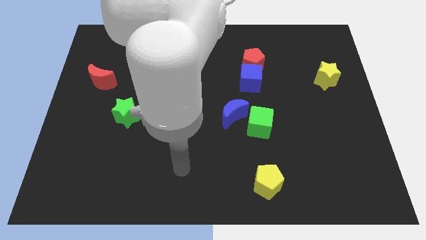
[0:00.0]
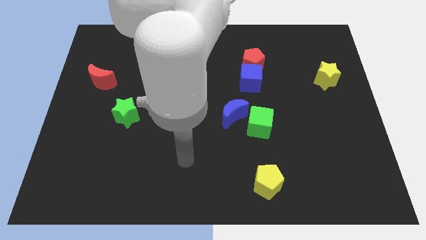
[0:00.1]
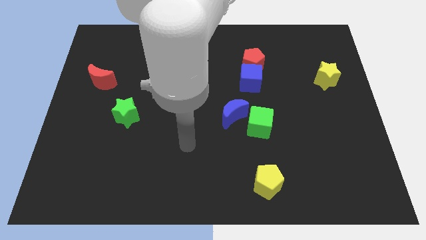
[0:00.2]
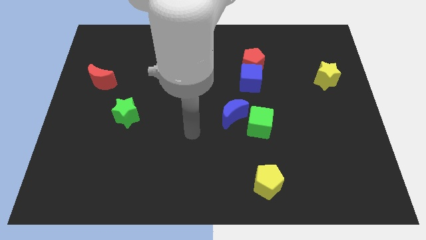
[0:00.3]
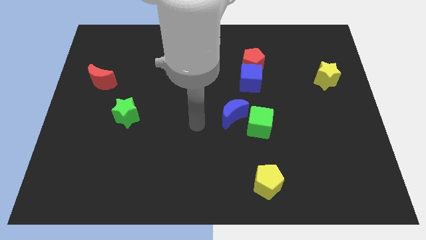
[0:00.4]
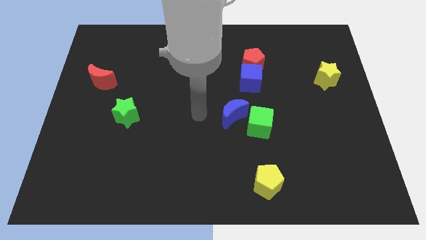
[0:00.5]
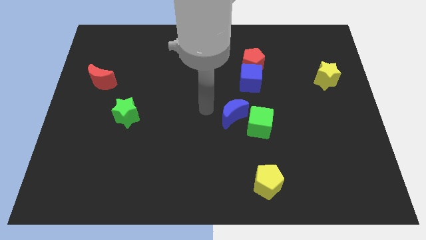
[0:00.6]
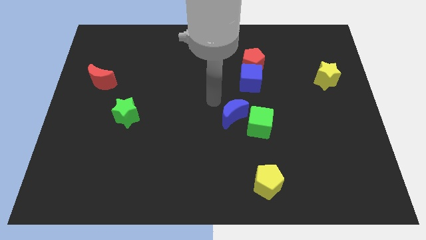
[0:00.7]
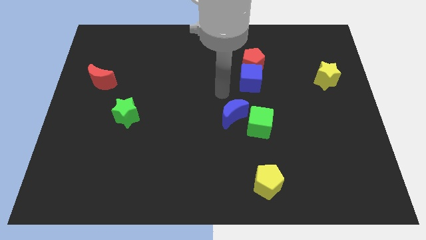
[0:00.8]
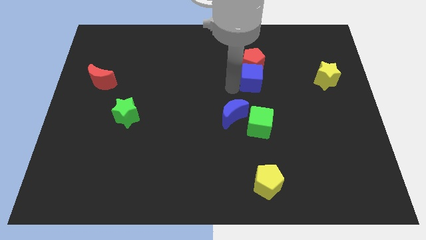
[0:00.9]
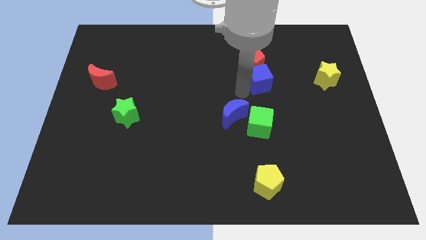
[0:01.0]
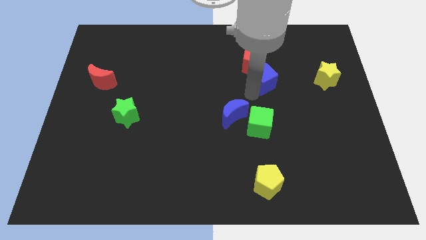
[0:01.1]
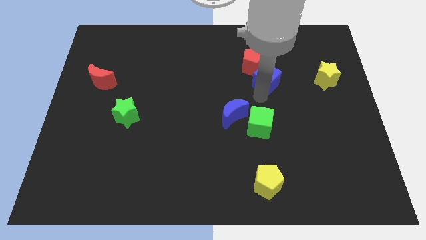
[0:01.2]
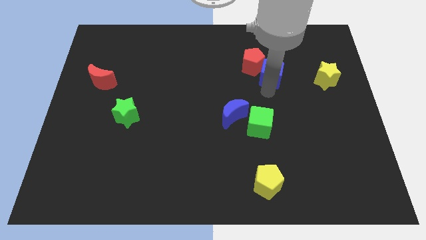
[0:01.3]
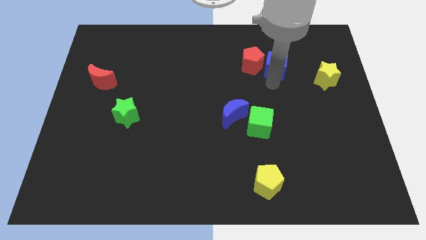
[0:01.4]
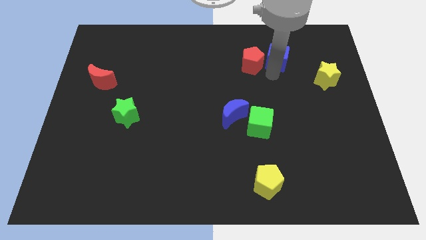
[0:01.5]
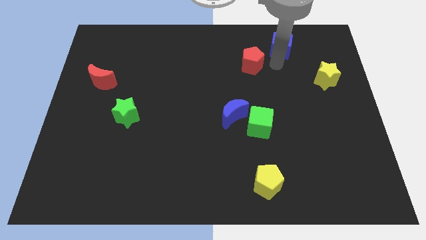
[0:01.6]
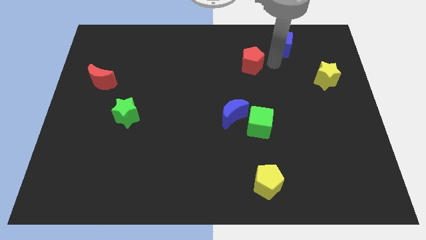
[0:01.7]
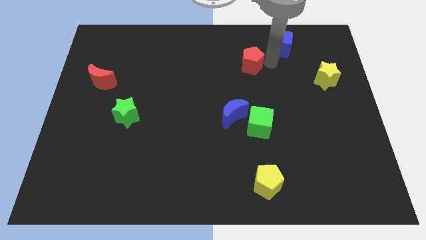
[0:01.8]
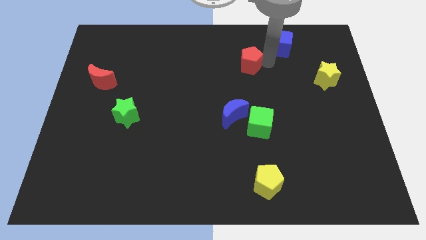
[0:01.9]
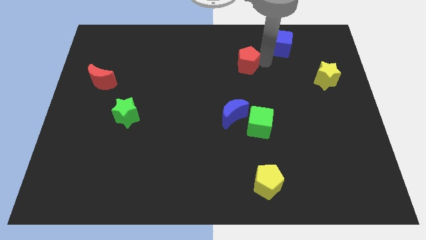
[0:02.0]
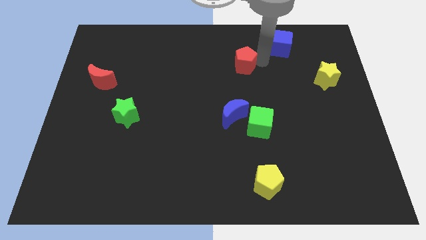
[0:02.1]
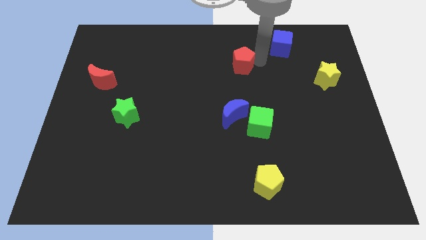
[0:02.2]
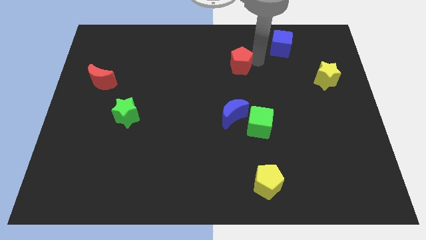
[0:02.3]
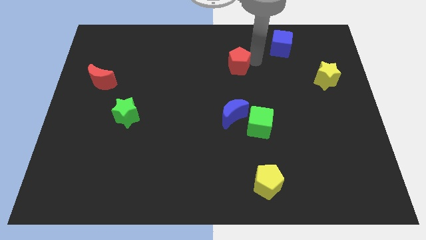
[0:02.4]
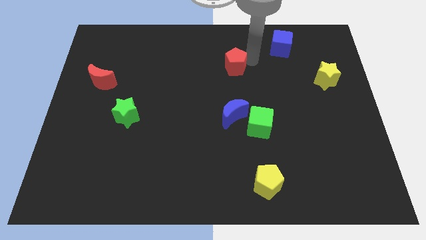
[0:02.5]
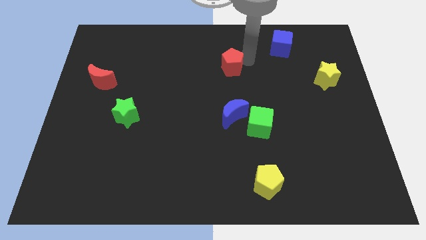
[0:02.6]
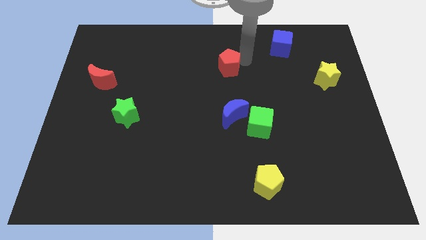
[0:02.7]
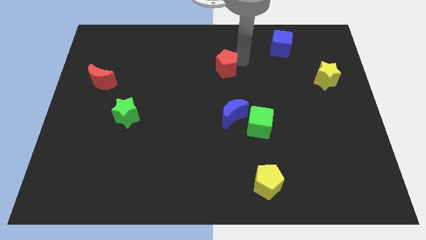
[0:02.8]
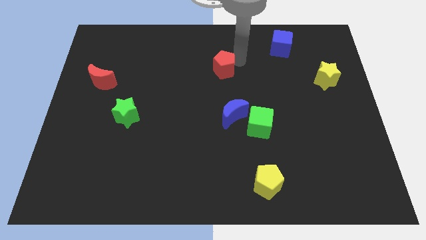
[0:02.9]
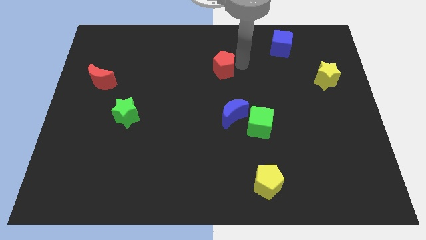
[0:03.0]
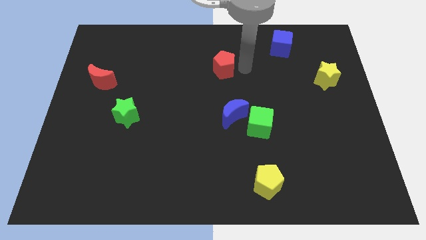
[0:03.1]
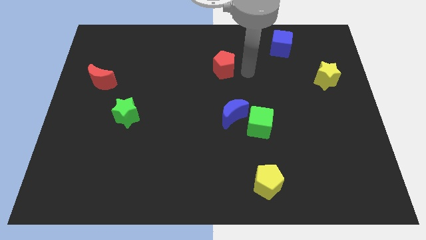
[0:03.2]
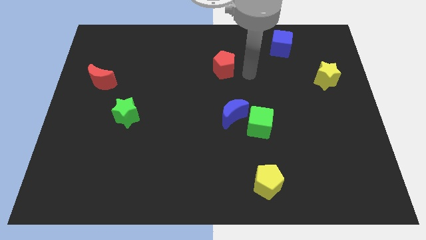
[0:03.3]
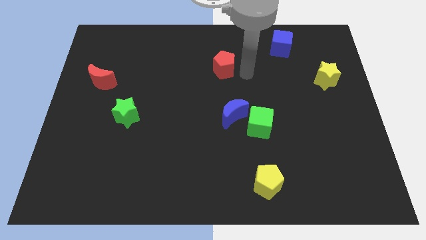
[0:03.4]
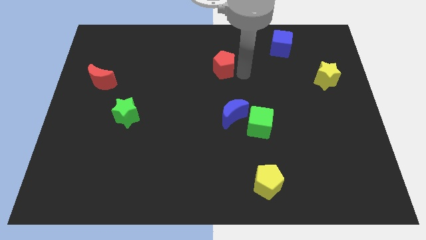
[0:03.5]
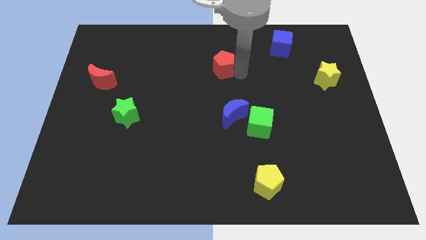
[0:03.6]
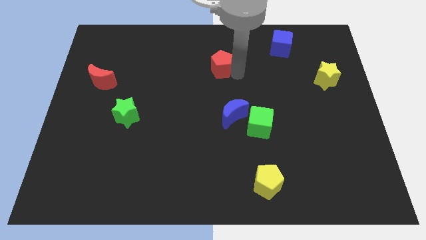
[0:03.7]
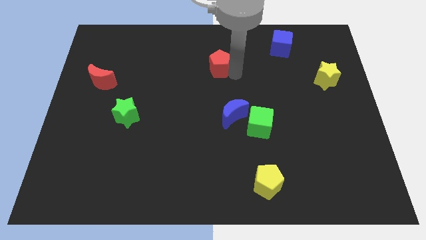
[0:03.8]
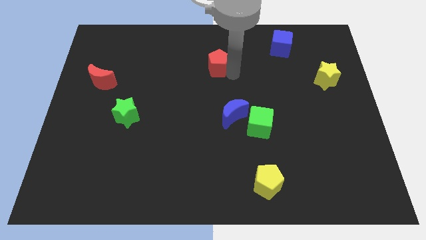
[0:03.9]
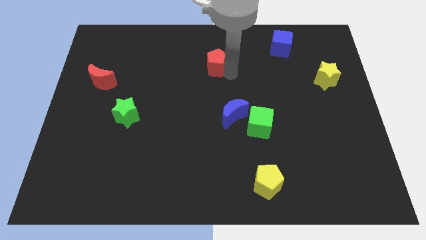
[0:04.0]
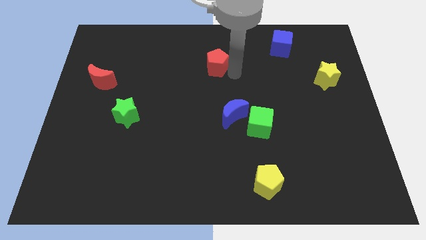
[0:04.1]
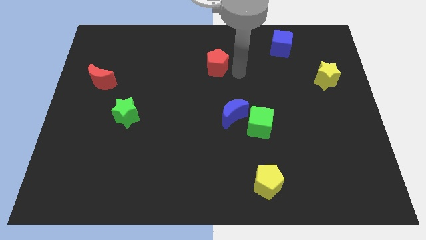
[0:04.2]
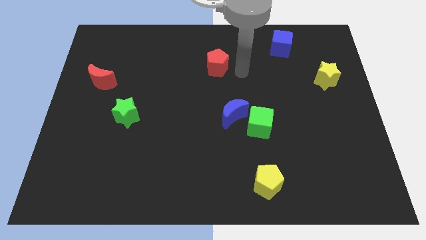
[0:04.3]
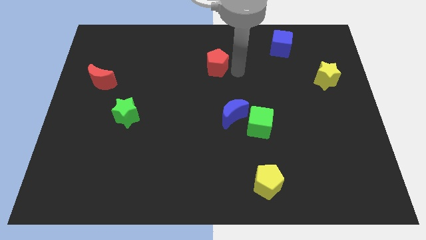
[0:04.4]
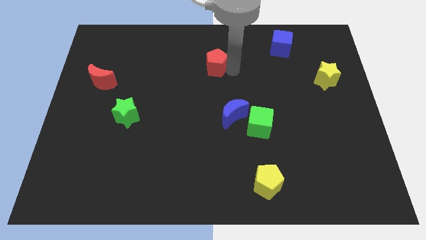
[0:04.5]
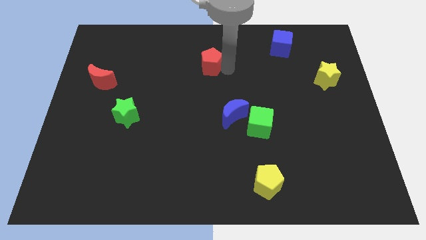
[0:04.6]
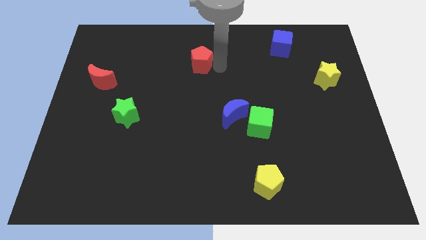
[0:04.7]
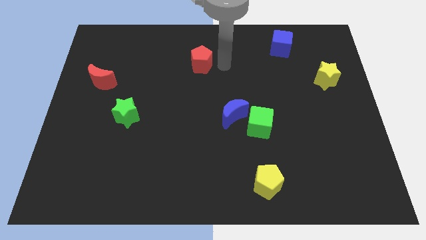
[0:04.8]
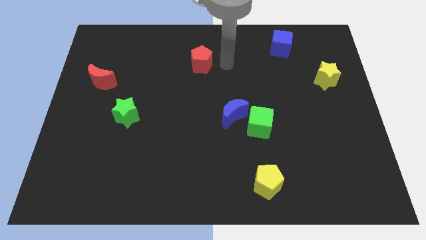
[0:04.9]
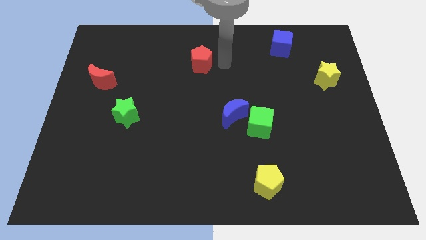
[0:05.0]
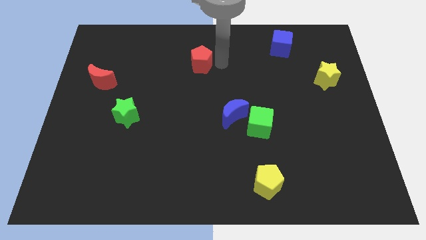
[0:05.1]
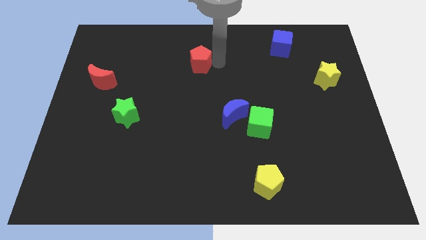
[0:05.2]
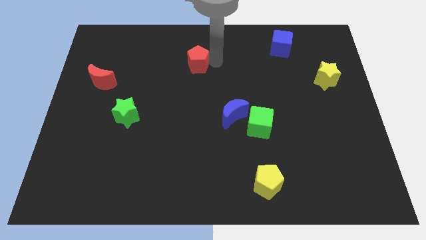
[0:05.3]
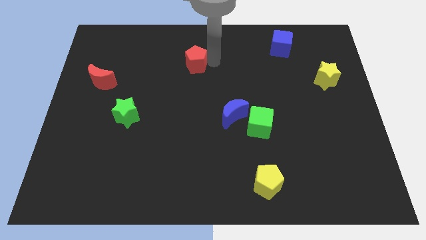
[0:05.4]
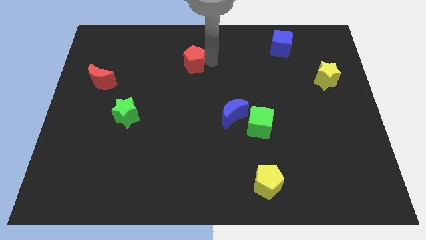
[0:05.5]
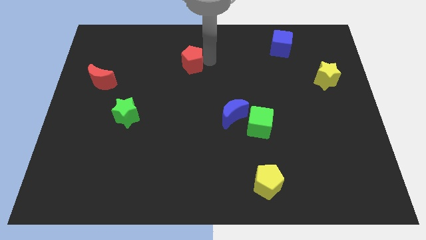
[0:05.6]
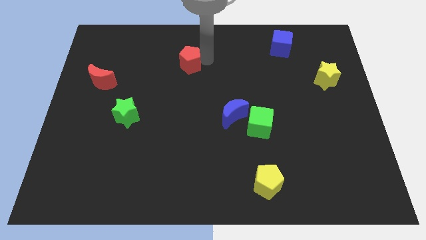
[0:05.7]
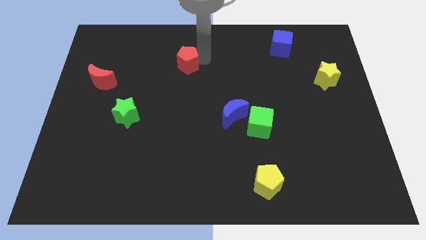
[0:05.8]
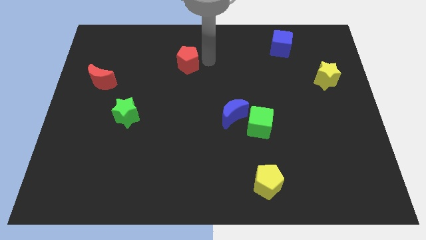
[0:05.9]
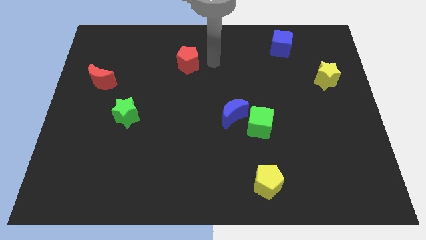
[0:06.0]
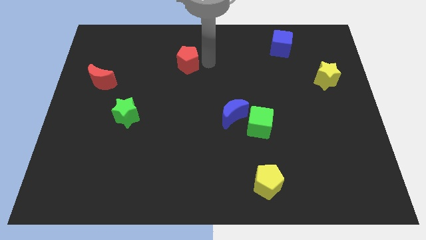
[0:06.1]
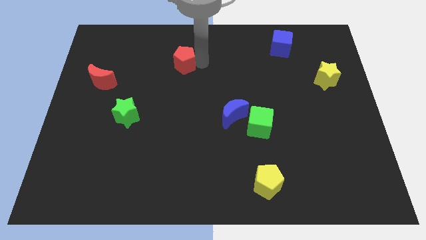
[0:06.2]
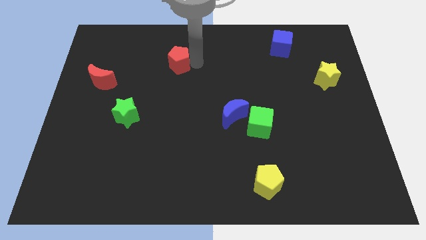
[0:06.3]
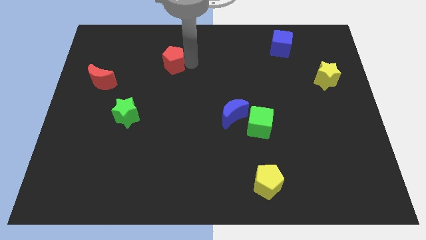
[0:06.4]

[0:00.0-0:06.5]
push the red pentagon left

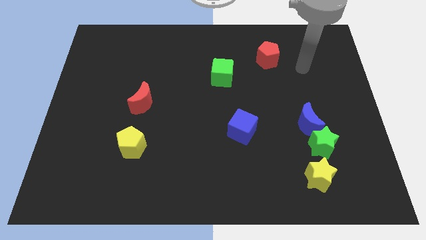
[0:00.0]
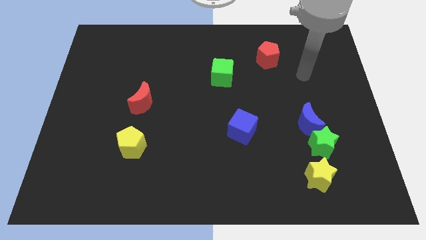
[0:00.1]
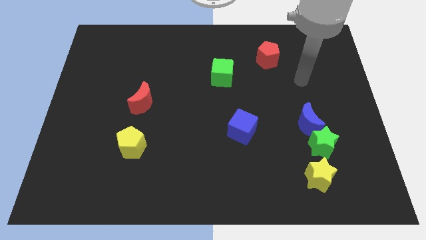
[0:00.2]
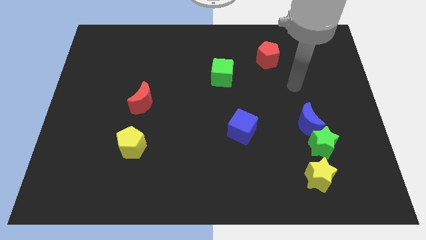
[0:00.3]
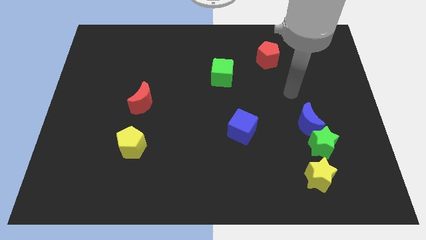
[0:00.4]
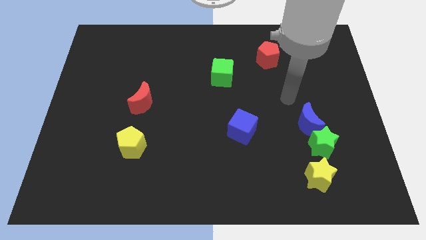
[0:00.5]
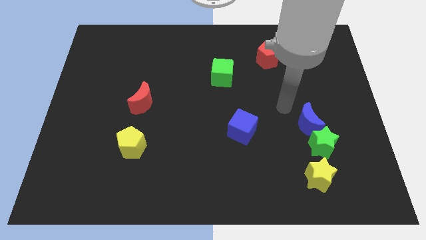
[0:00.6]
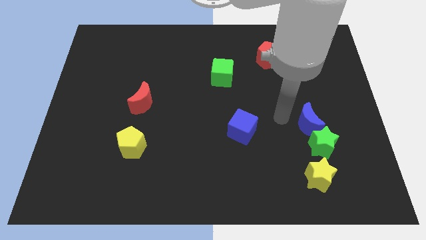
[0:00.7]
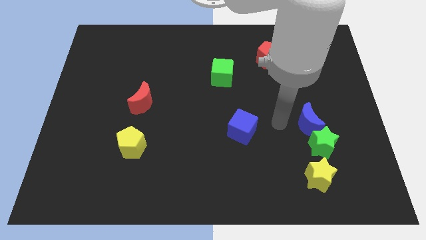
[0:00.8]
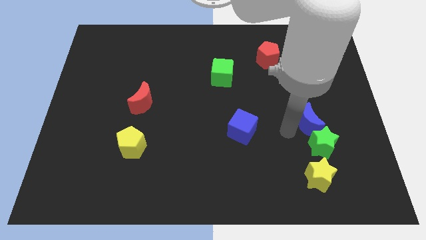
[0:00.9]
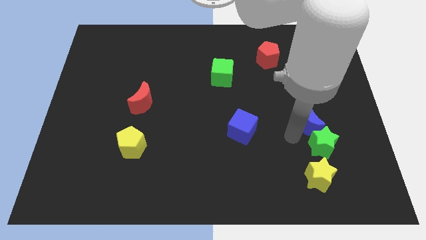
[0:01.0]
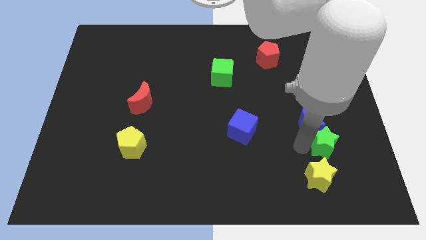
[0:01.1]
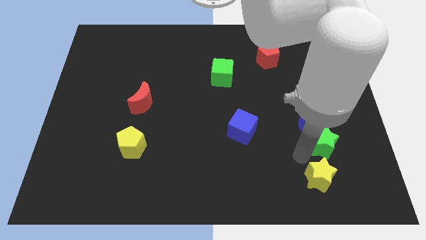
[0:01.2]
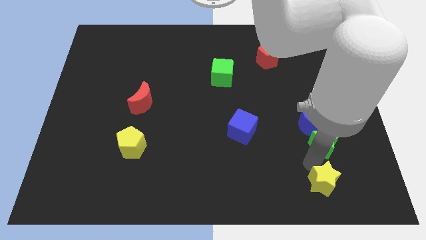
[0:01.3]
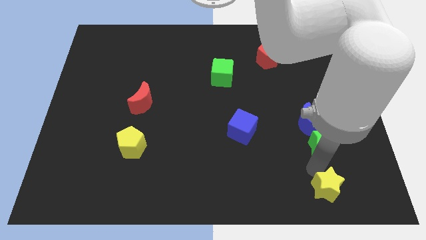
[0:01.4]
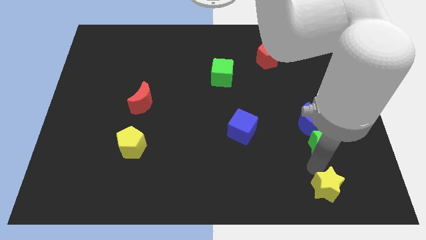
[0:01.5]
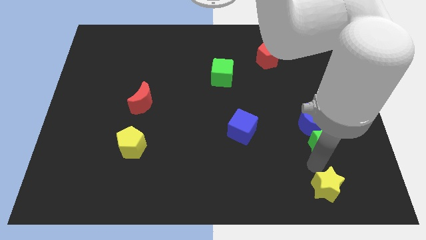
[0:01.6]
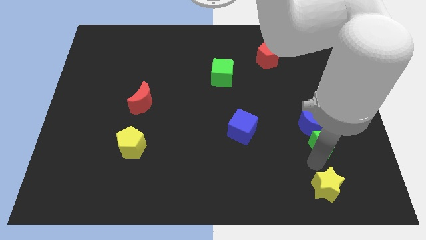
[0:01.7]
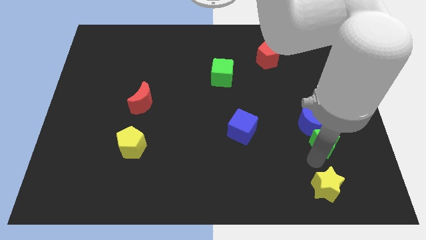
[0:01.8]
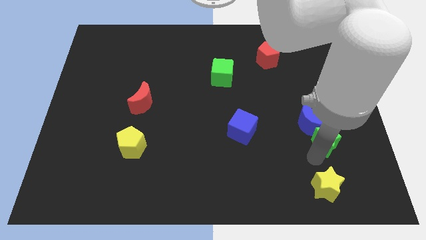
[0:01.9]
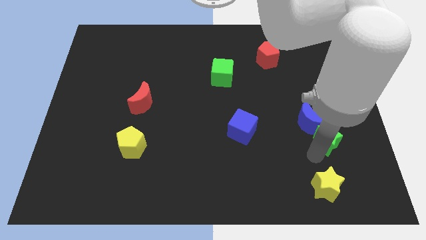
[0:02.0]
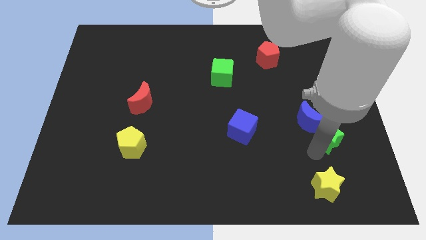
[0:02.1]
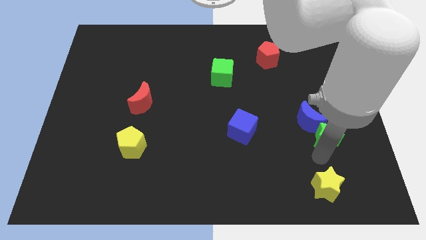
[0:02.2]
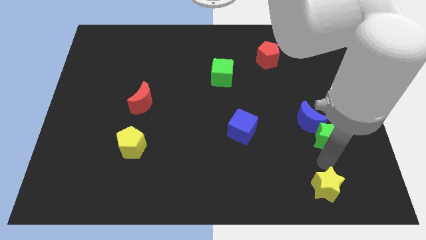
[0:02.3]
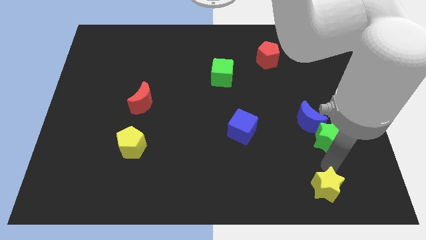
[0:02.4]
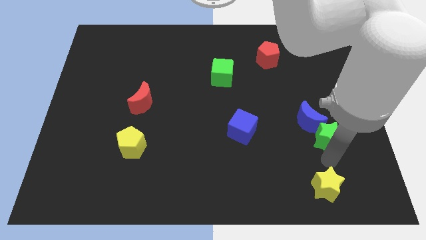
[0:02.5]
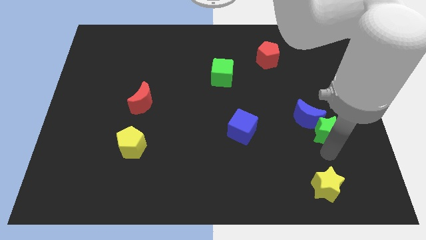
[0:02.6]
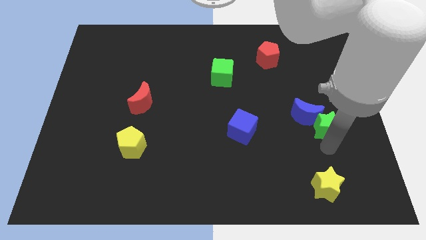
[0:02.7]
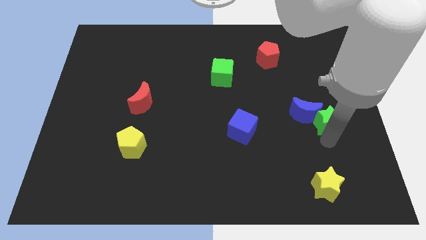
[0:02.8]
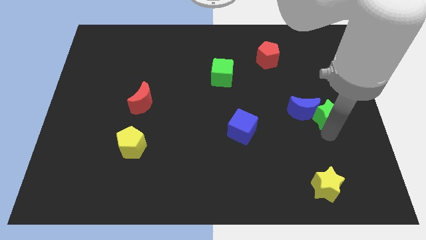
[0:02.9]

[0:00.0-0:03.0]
move the green star up somewhat
